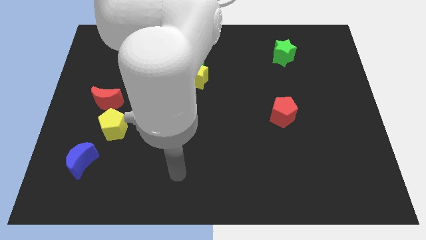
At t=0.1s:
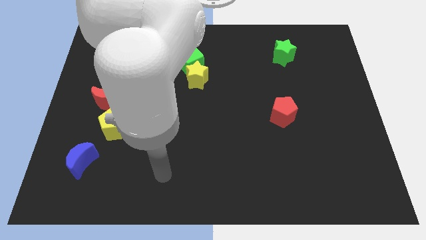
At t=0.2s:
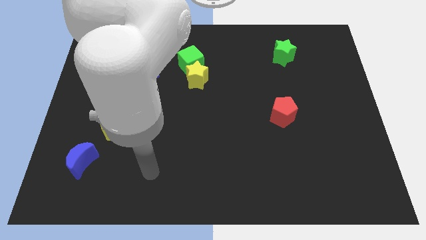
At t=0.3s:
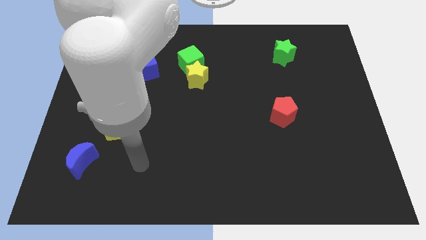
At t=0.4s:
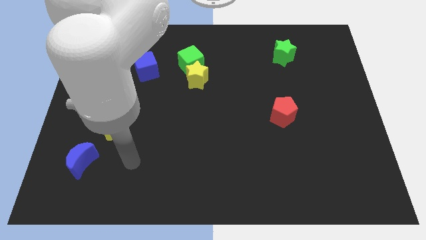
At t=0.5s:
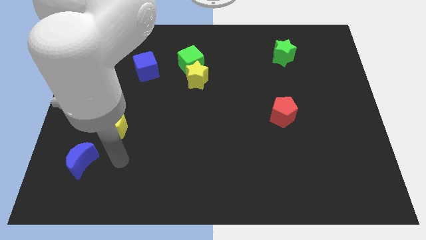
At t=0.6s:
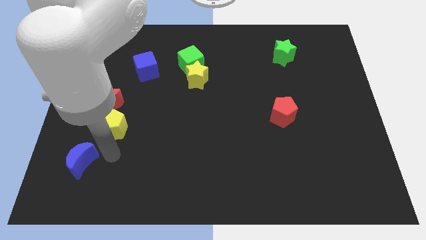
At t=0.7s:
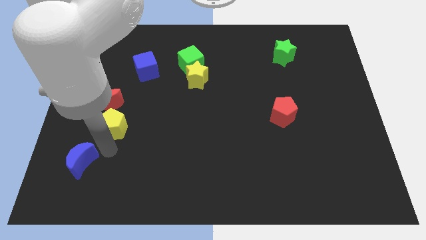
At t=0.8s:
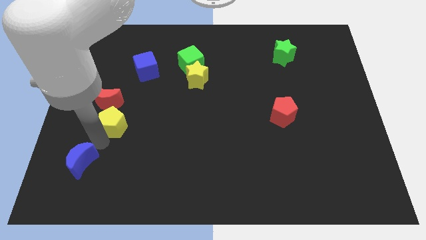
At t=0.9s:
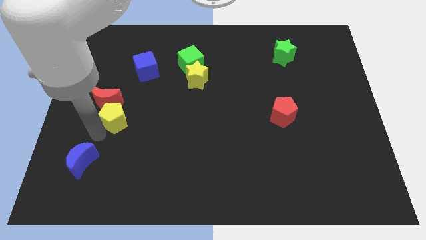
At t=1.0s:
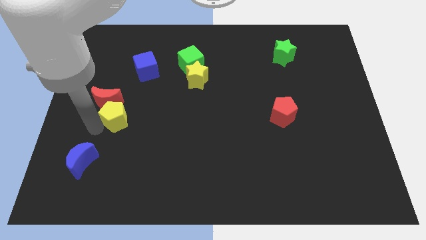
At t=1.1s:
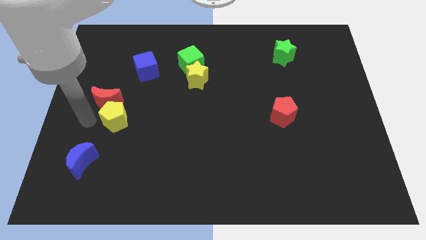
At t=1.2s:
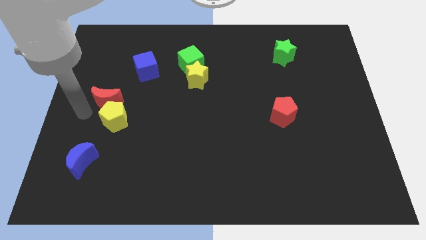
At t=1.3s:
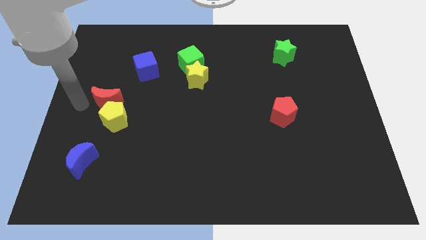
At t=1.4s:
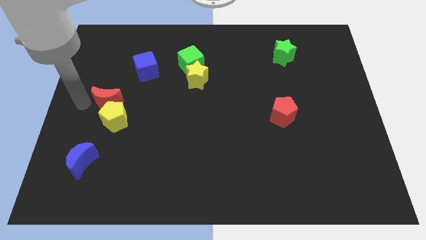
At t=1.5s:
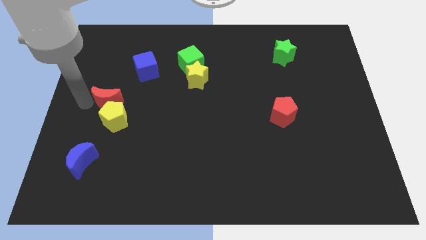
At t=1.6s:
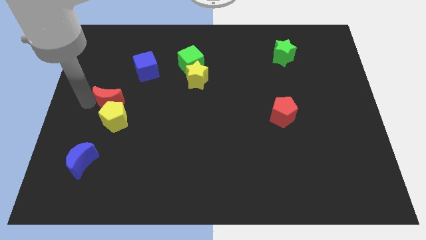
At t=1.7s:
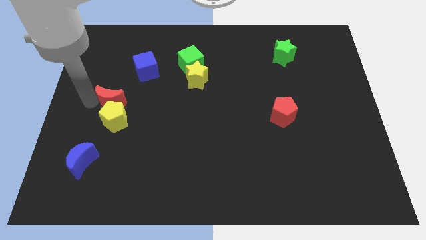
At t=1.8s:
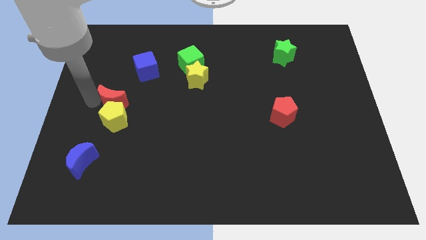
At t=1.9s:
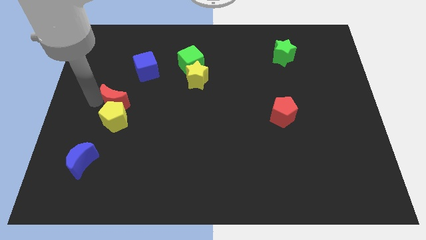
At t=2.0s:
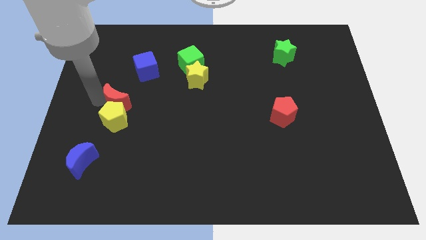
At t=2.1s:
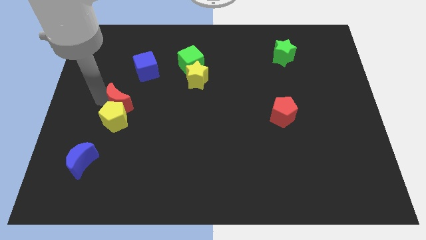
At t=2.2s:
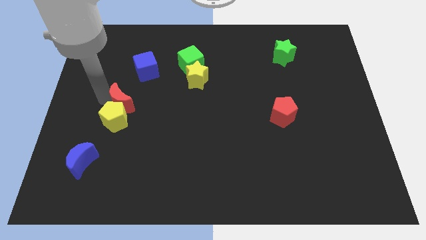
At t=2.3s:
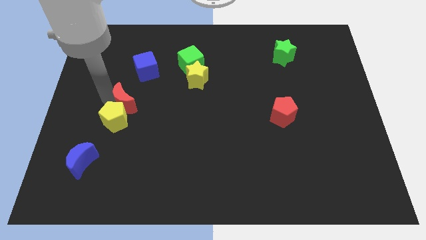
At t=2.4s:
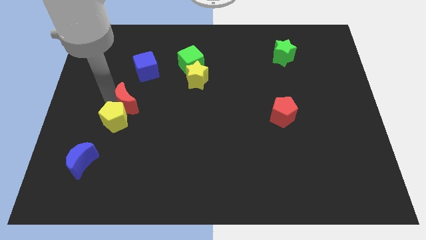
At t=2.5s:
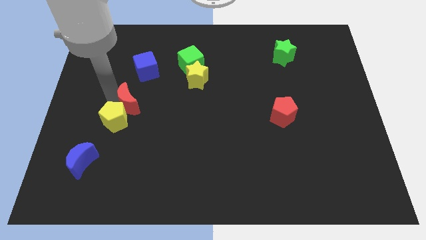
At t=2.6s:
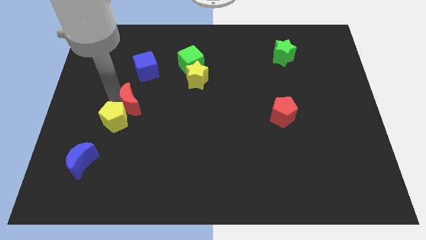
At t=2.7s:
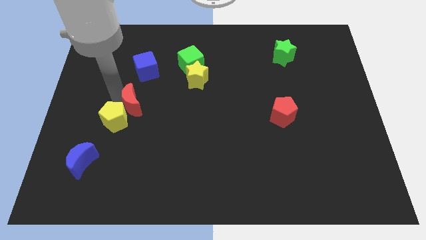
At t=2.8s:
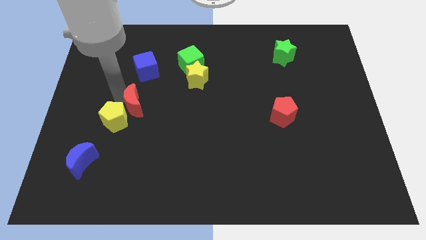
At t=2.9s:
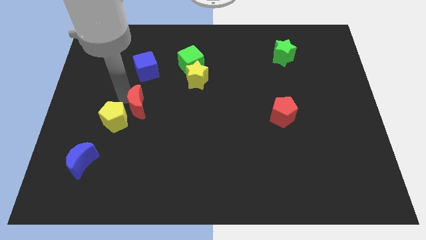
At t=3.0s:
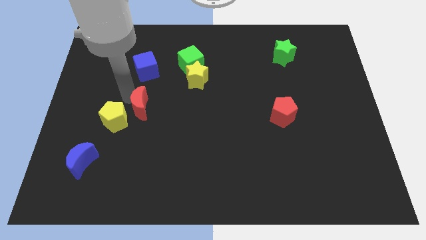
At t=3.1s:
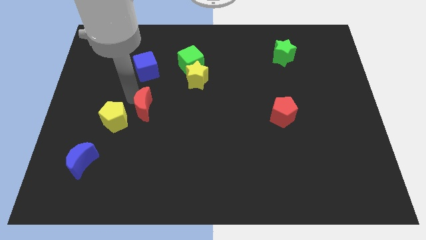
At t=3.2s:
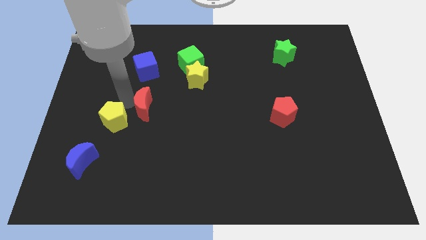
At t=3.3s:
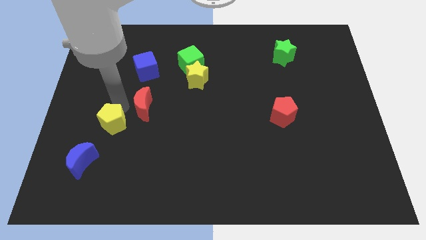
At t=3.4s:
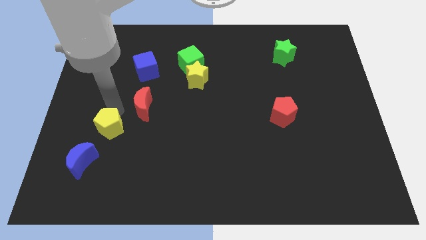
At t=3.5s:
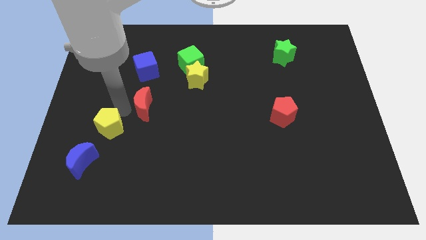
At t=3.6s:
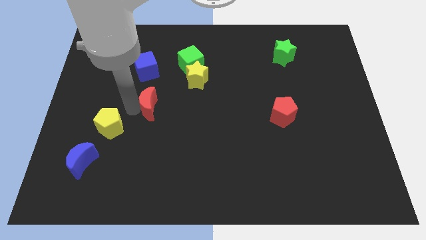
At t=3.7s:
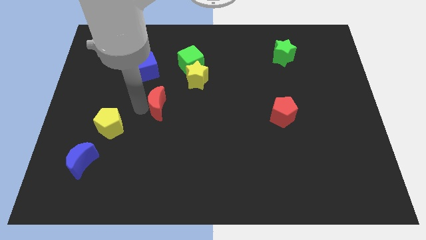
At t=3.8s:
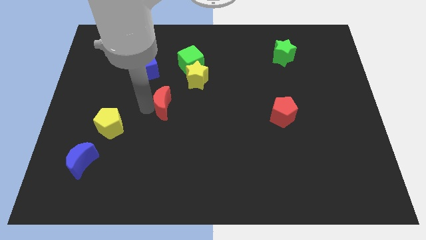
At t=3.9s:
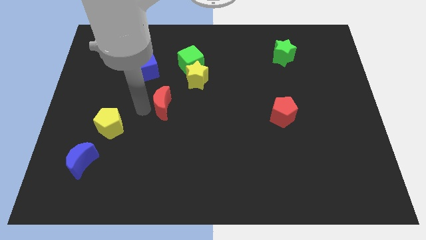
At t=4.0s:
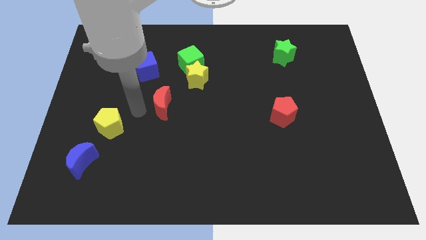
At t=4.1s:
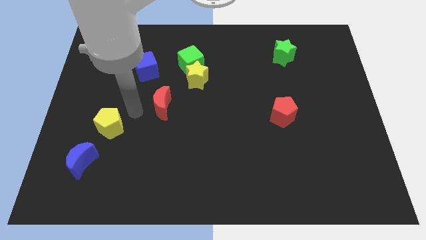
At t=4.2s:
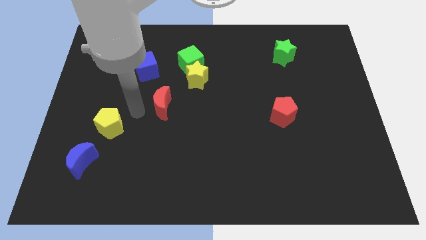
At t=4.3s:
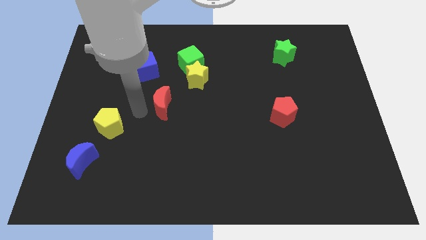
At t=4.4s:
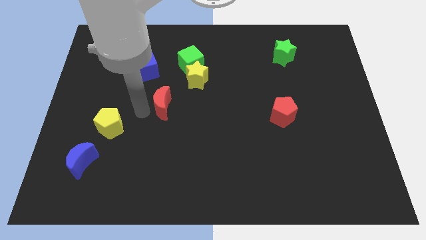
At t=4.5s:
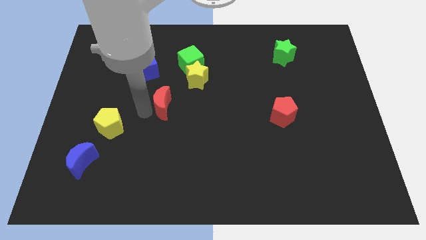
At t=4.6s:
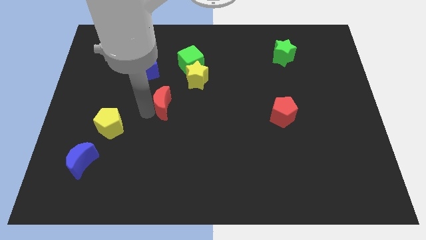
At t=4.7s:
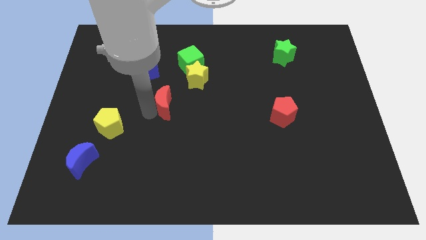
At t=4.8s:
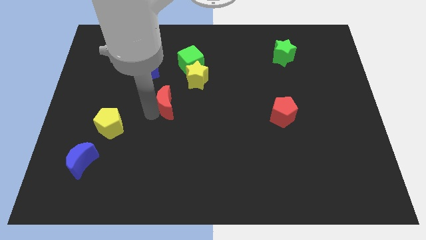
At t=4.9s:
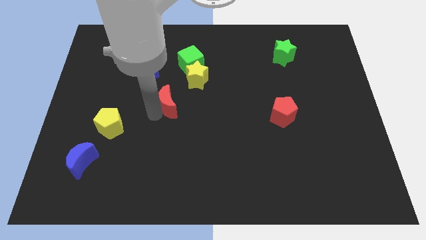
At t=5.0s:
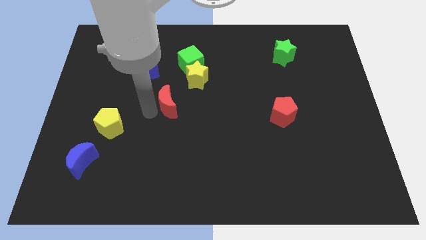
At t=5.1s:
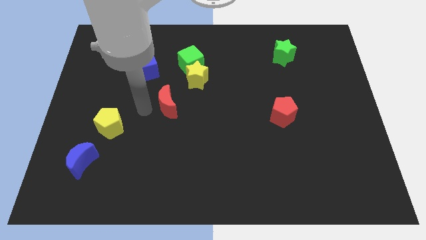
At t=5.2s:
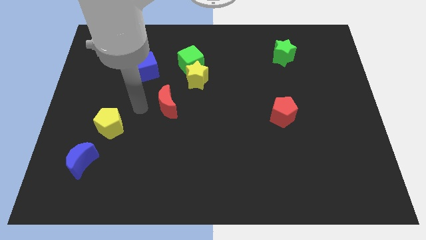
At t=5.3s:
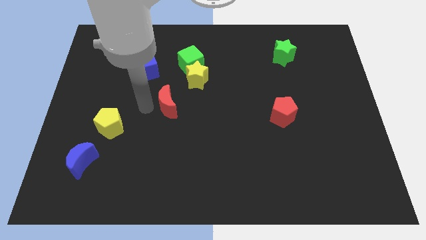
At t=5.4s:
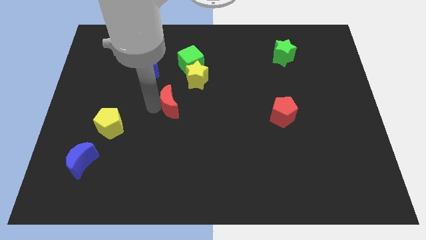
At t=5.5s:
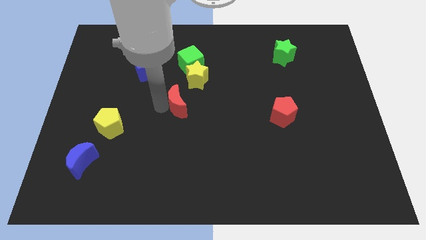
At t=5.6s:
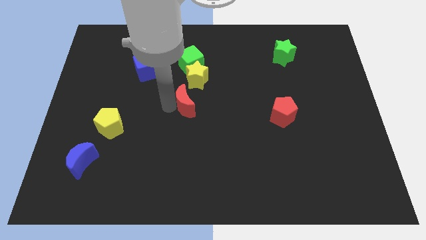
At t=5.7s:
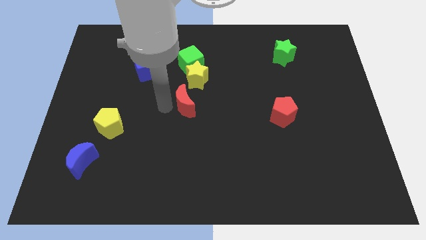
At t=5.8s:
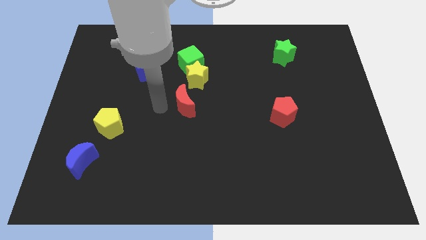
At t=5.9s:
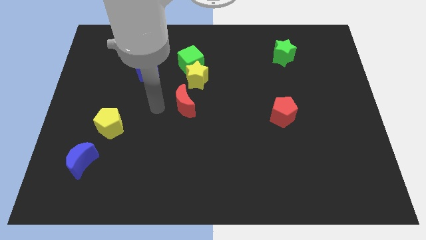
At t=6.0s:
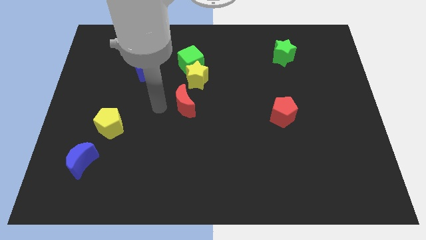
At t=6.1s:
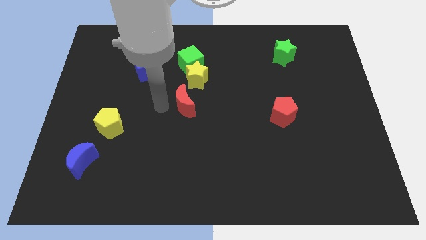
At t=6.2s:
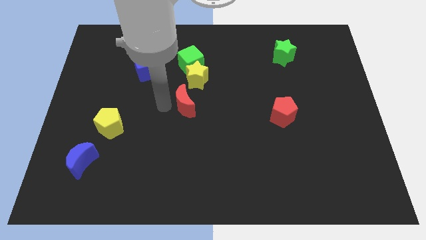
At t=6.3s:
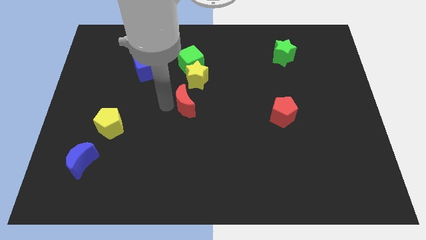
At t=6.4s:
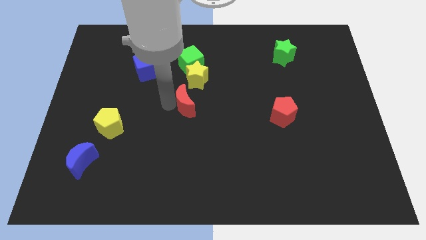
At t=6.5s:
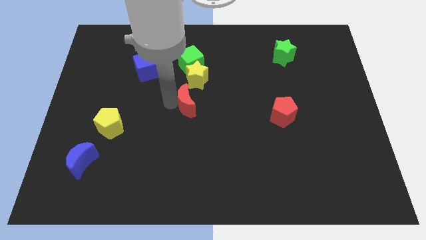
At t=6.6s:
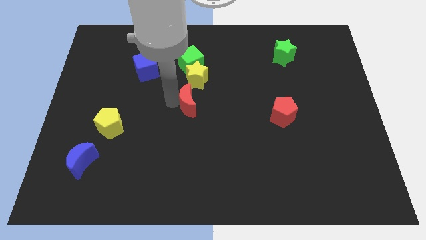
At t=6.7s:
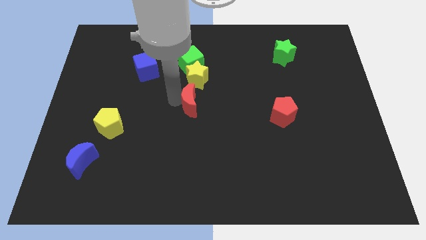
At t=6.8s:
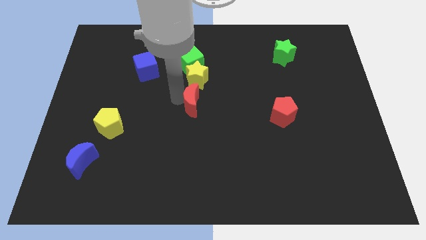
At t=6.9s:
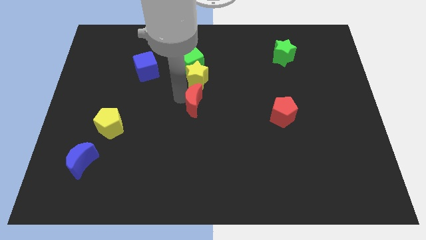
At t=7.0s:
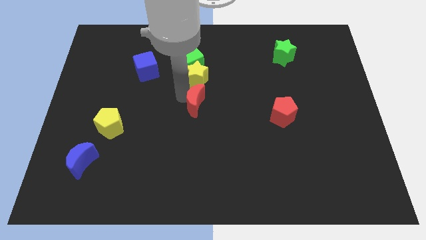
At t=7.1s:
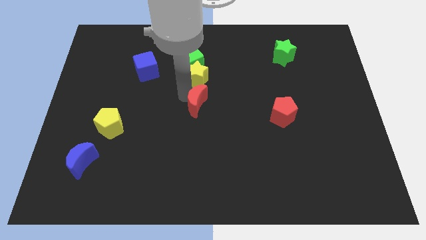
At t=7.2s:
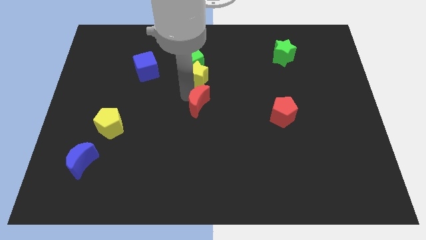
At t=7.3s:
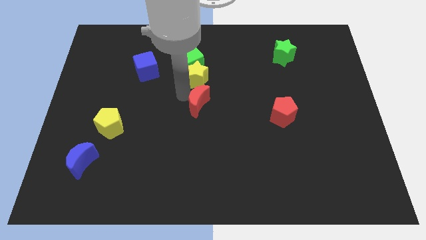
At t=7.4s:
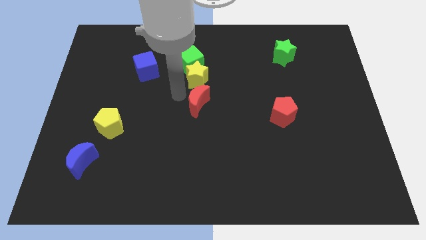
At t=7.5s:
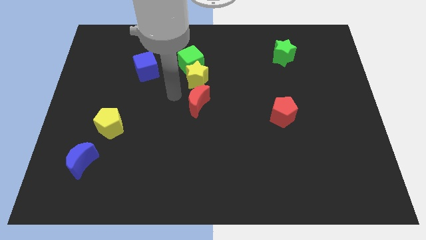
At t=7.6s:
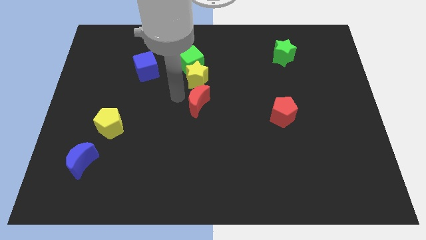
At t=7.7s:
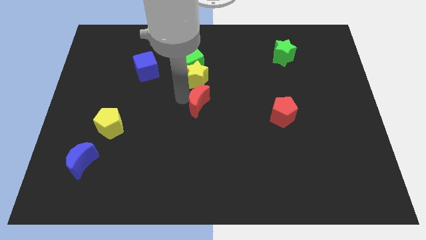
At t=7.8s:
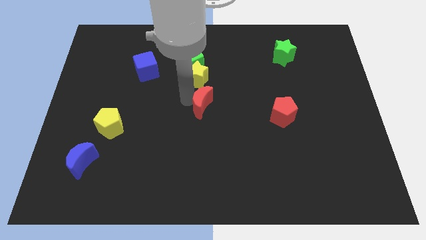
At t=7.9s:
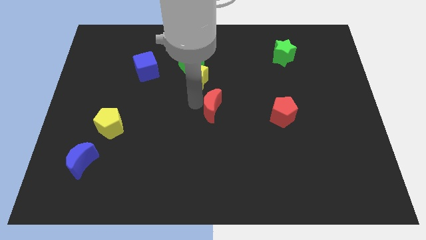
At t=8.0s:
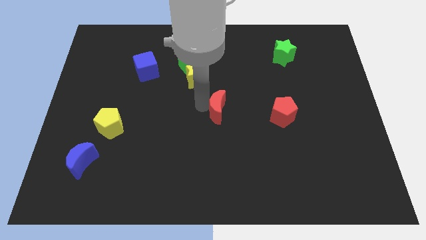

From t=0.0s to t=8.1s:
push the red moon just left of the red pentagon
